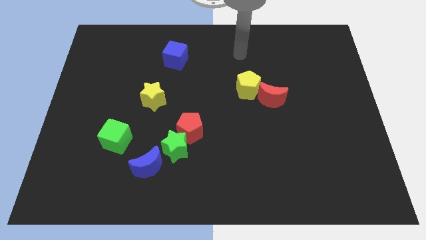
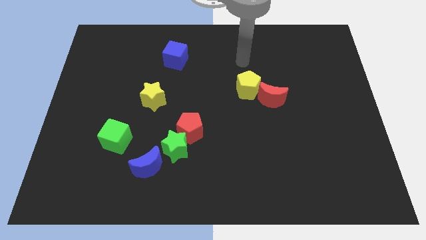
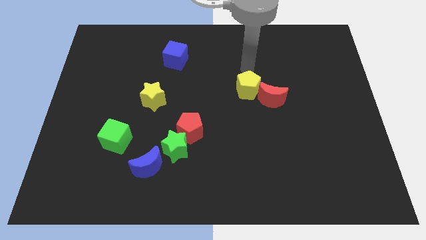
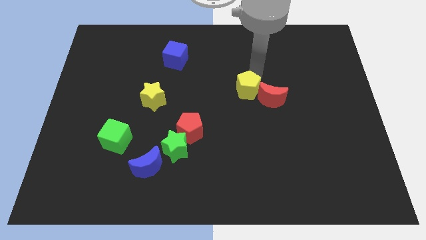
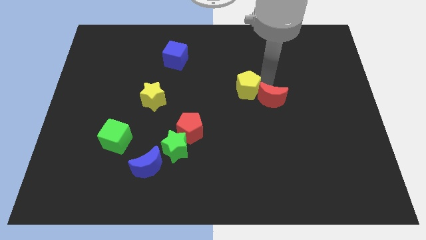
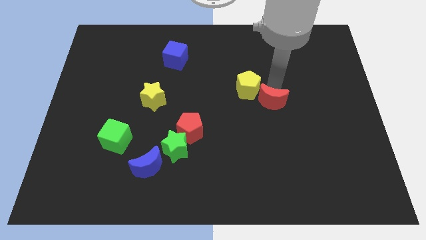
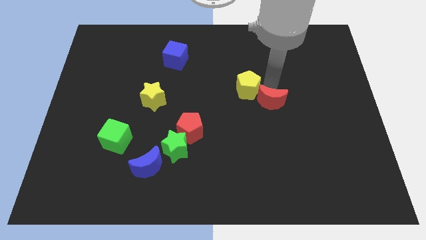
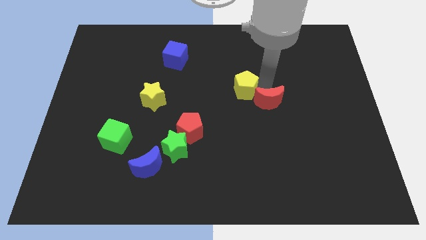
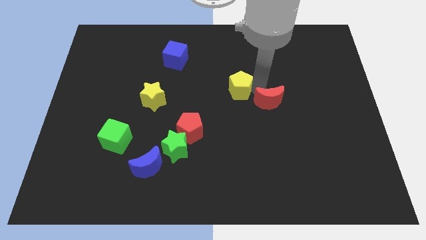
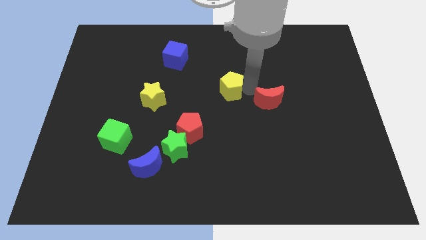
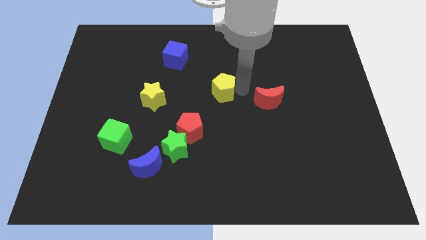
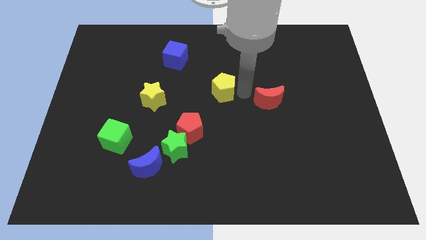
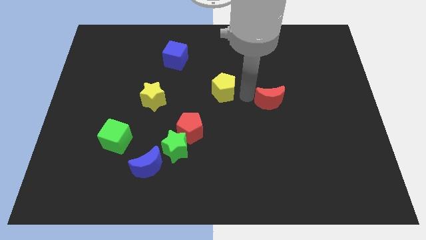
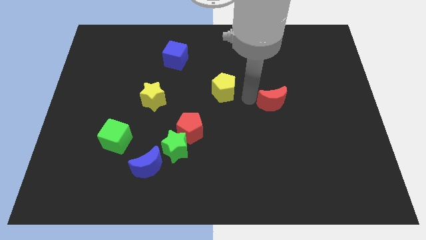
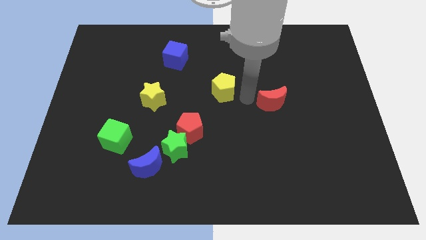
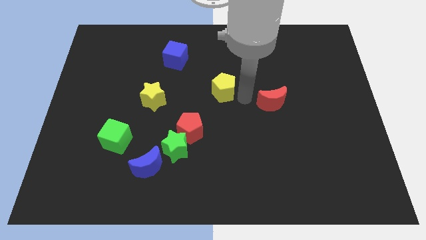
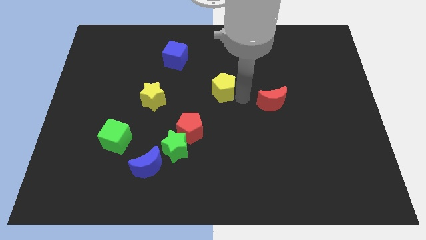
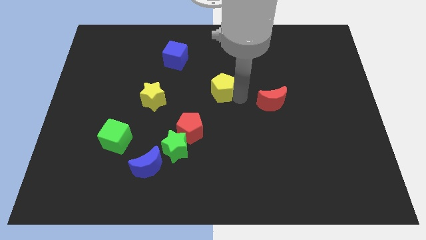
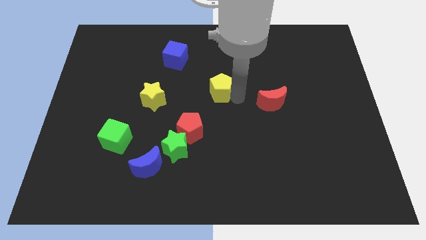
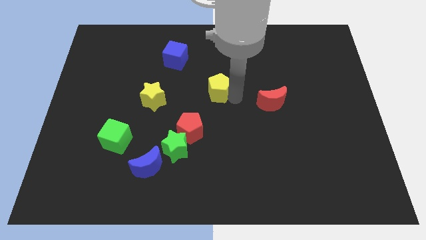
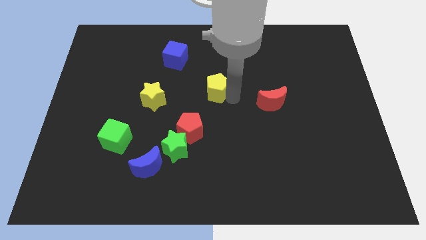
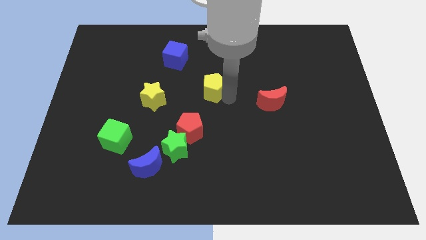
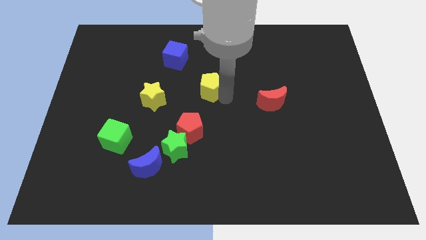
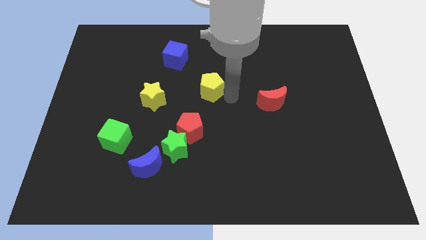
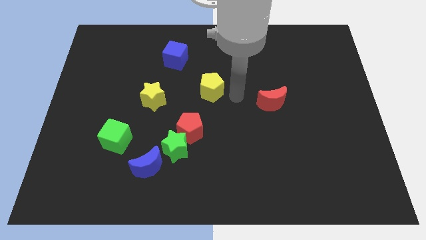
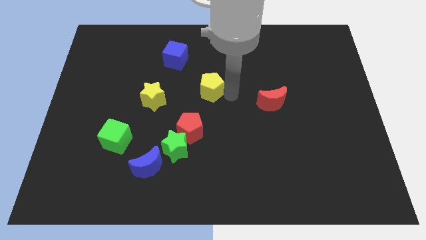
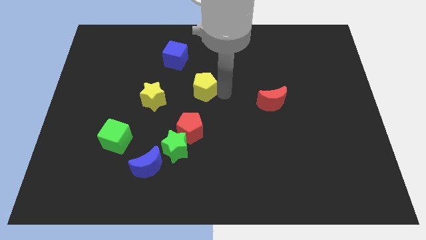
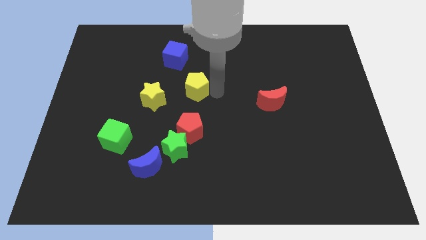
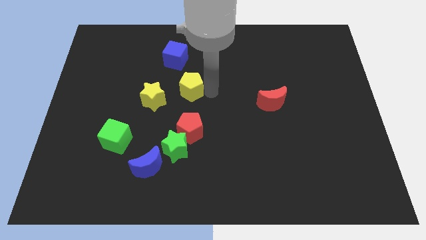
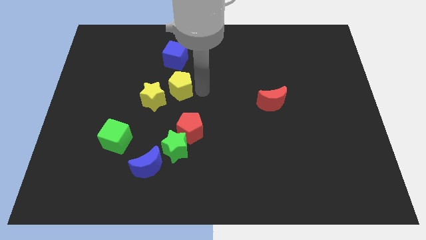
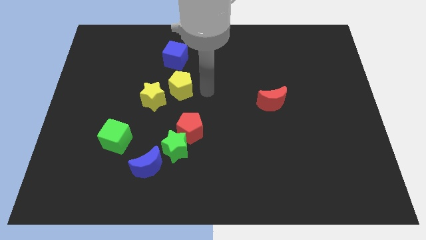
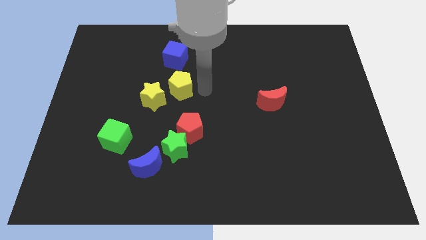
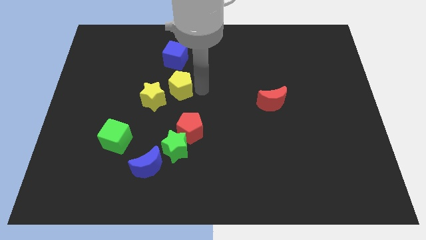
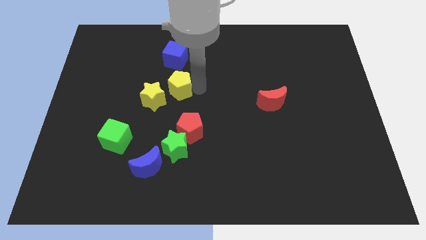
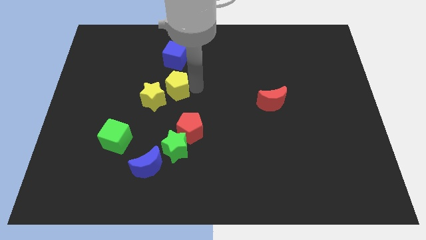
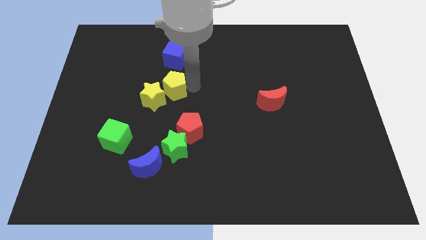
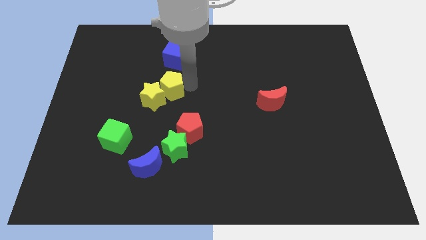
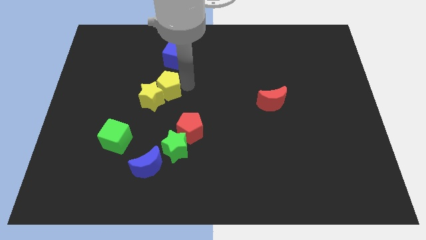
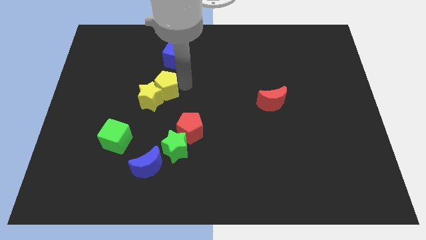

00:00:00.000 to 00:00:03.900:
move the yellow pentagon to the left

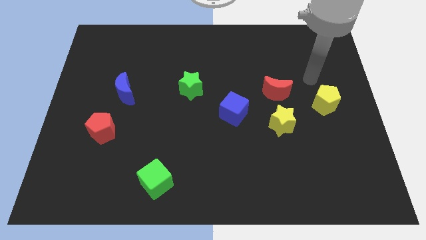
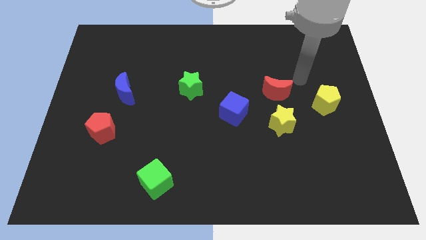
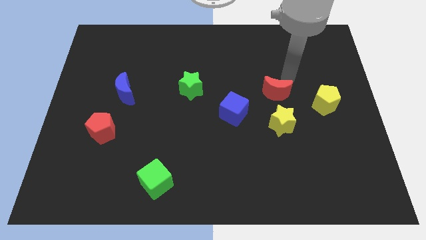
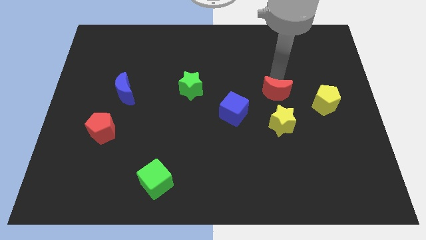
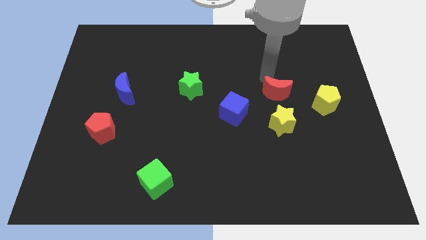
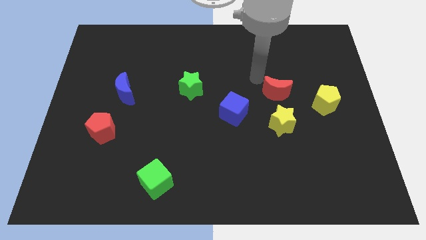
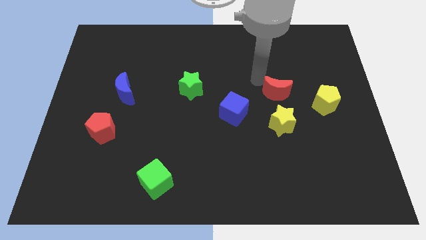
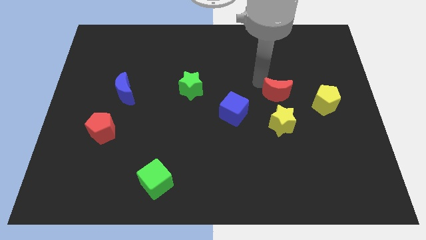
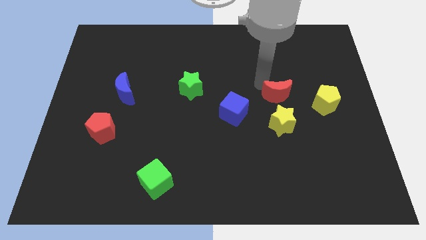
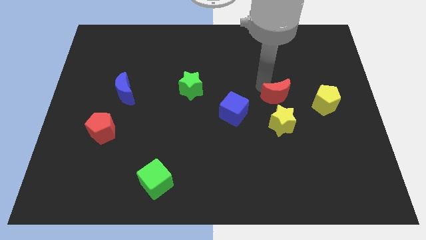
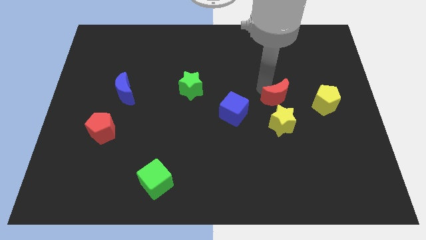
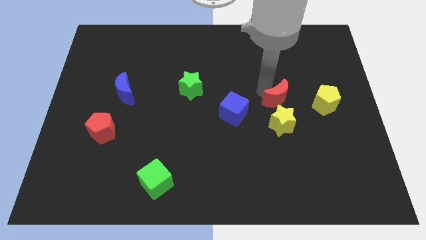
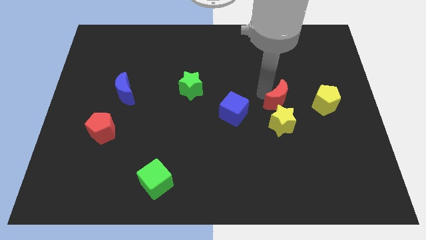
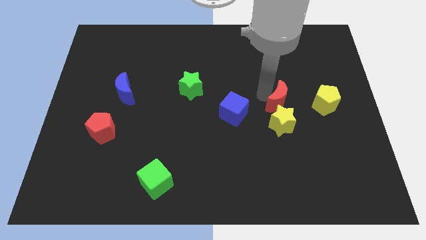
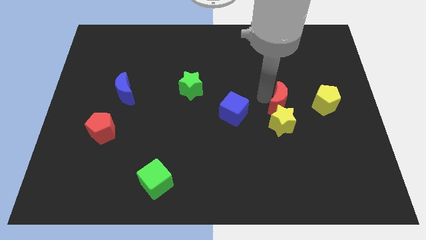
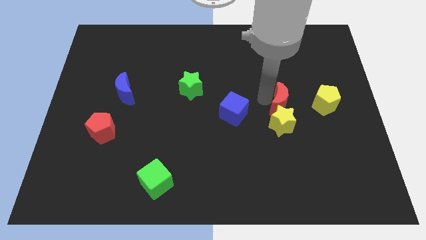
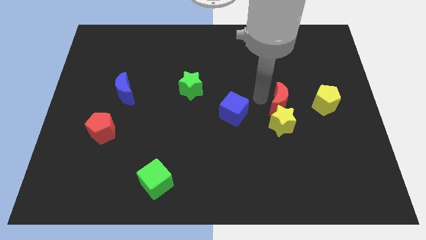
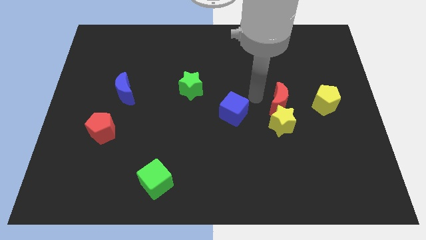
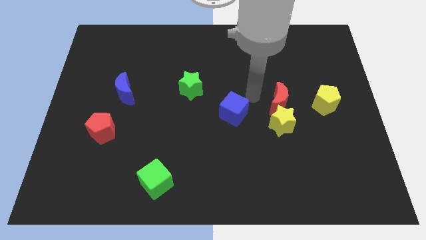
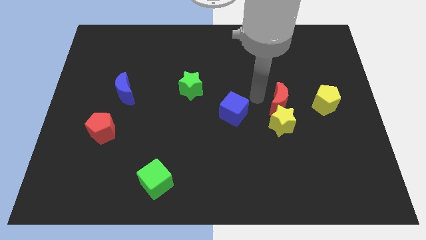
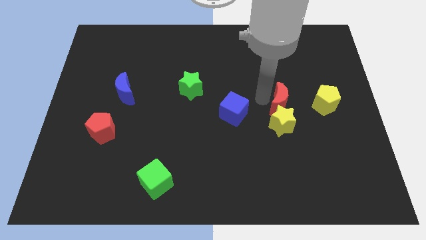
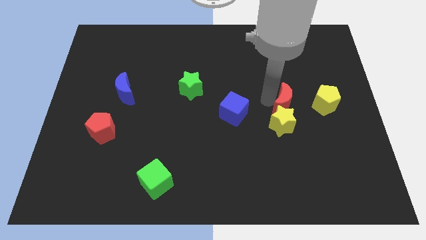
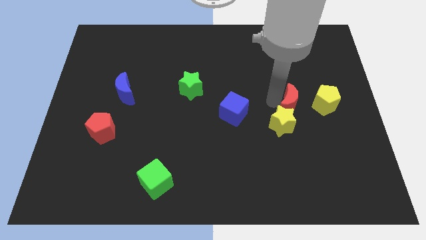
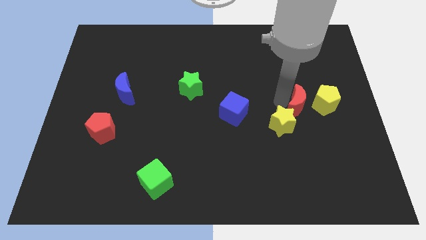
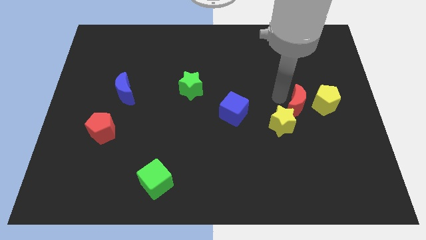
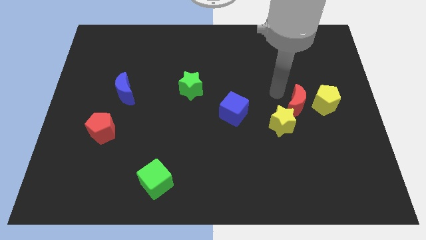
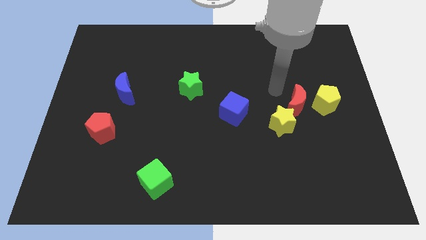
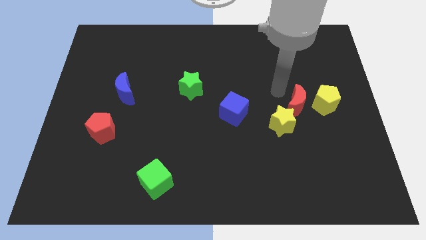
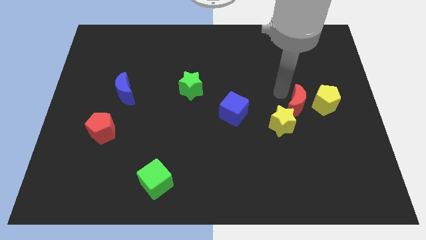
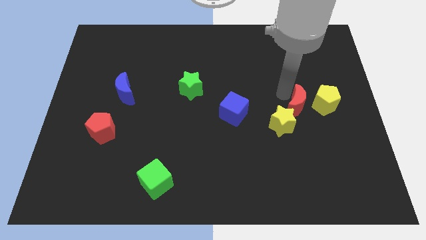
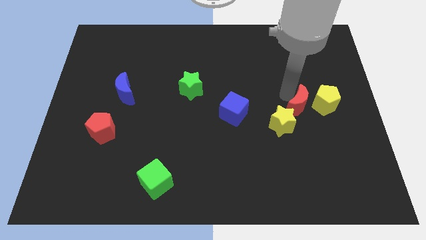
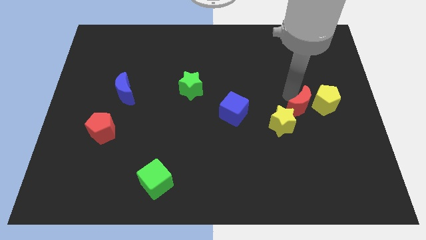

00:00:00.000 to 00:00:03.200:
slightly move the red moon downwards and then to the right

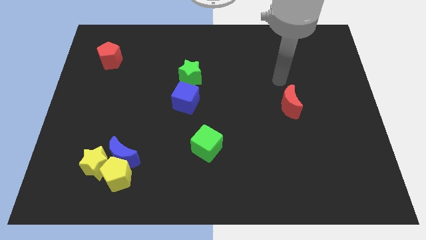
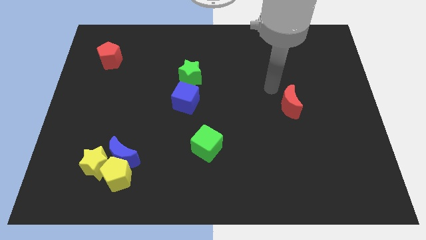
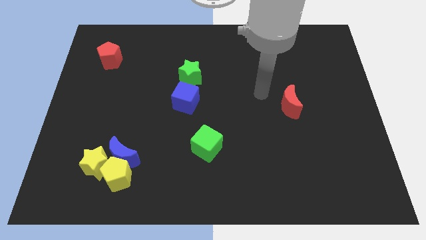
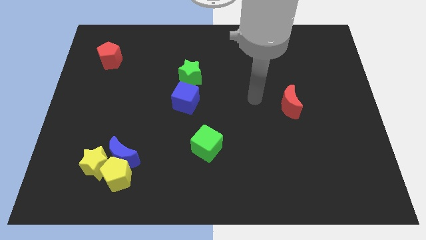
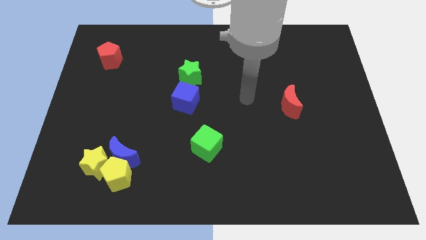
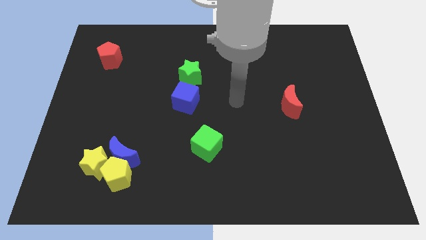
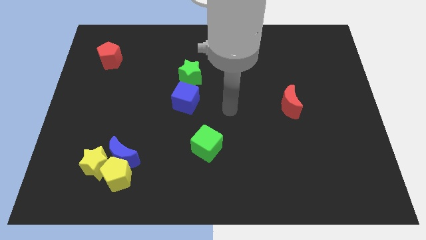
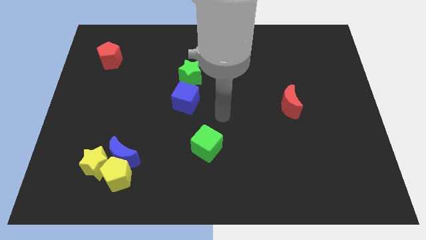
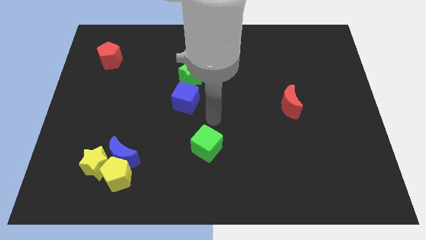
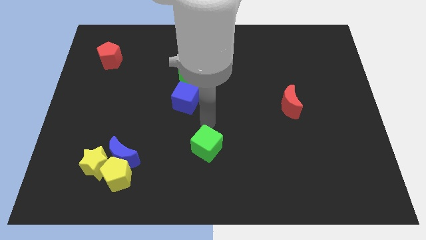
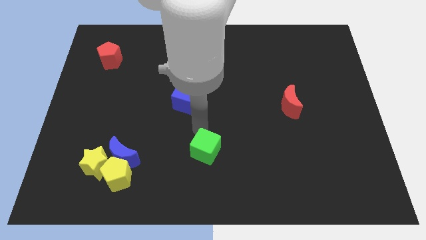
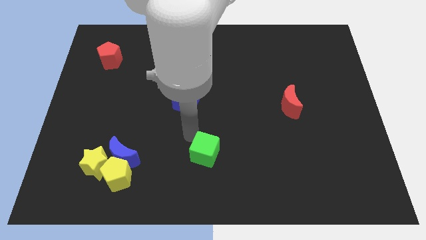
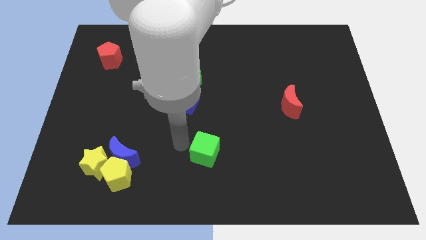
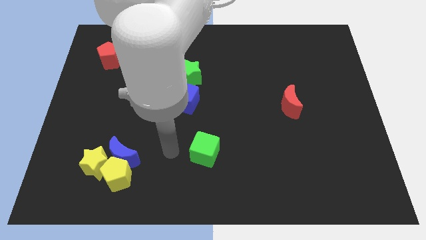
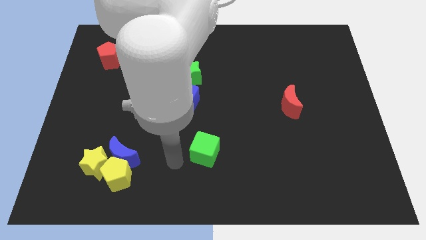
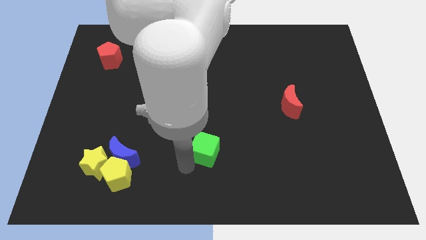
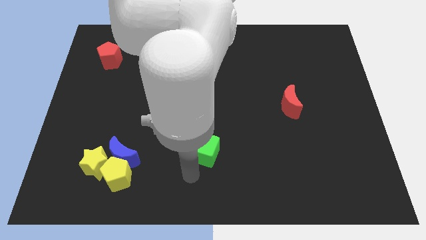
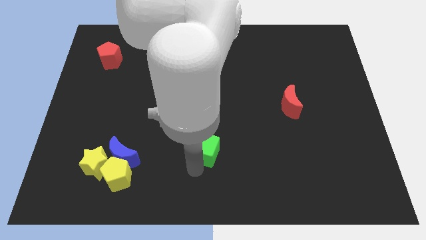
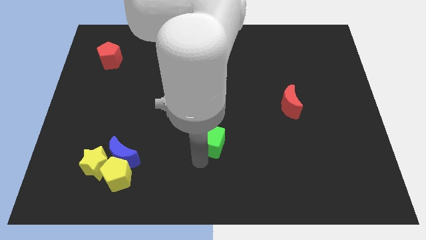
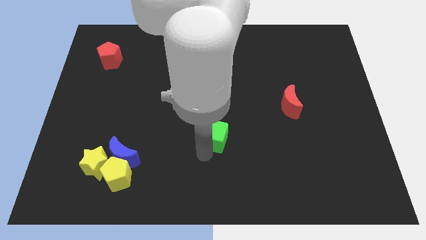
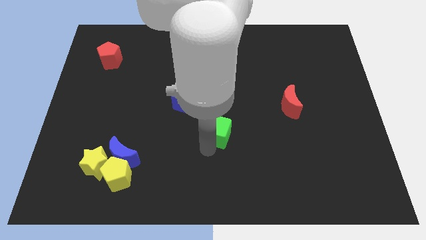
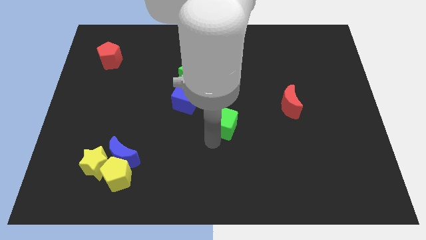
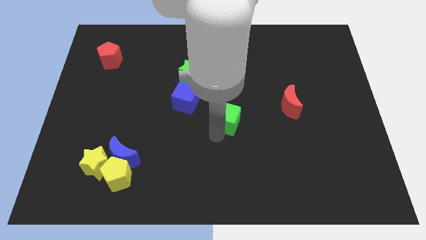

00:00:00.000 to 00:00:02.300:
slightly move the green cube diagonally upwards and to the right
